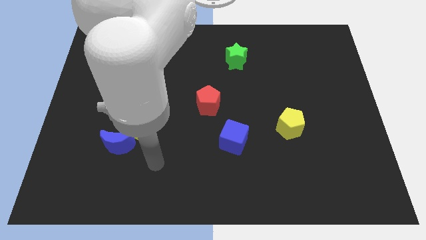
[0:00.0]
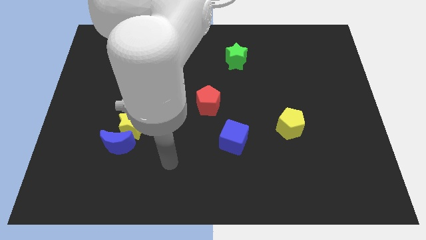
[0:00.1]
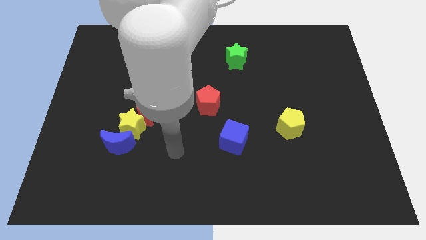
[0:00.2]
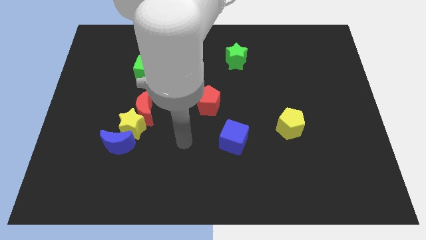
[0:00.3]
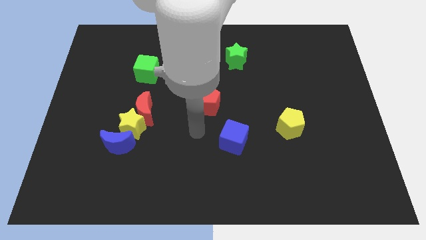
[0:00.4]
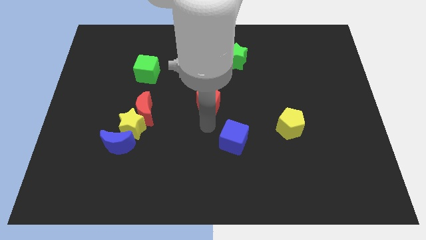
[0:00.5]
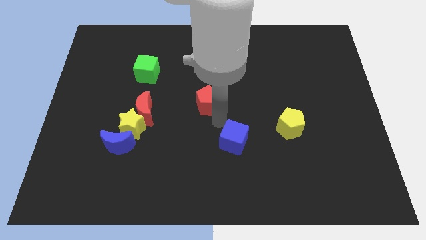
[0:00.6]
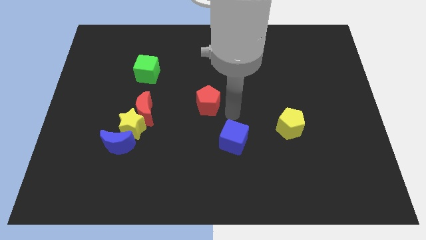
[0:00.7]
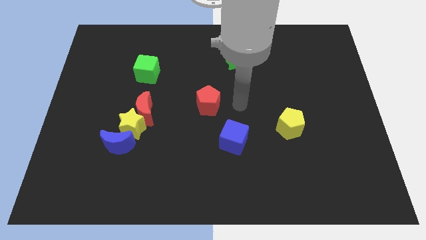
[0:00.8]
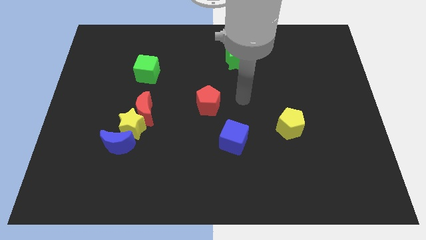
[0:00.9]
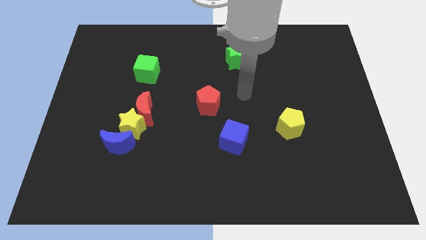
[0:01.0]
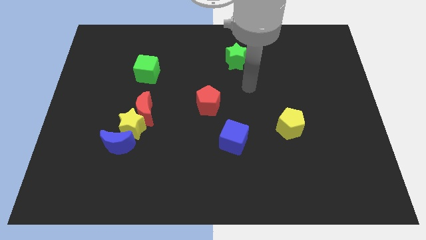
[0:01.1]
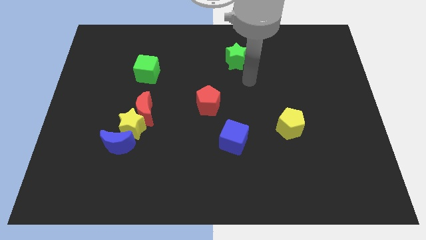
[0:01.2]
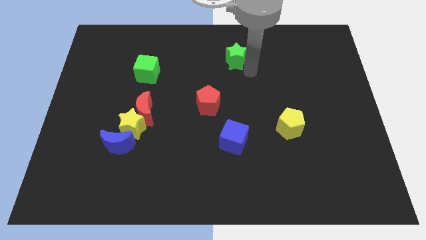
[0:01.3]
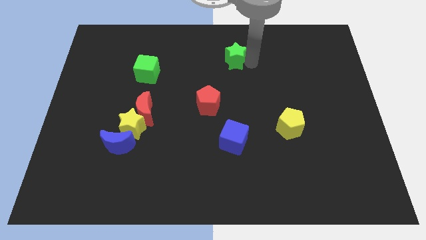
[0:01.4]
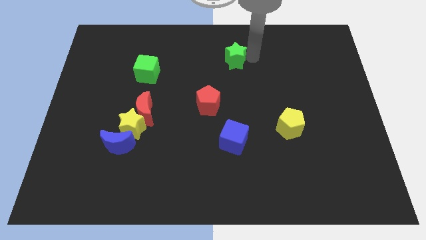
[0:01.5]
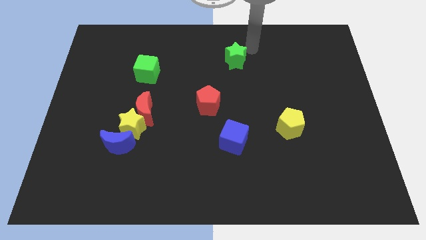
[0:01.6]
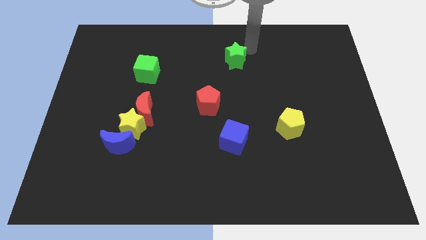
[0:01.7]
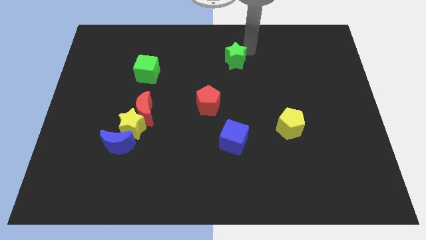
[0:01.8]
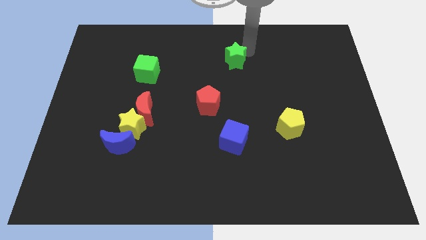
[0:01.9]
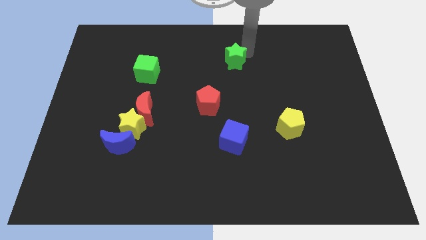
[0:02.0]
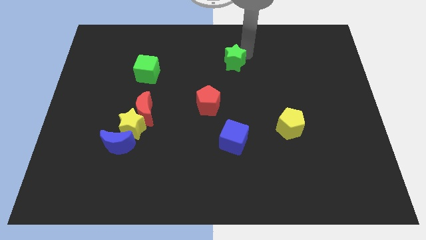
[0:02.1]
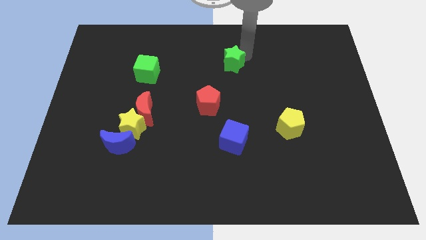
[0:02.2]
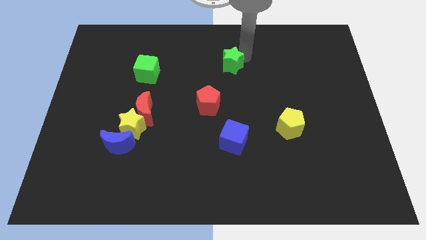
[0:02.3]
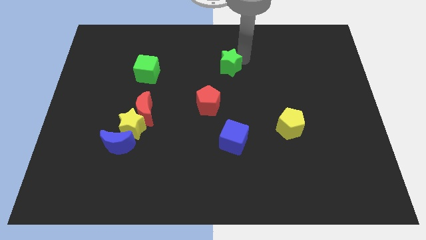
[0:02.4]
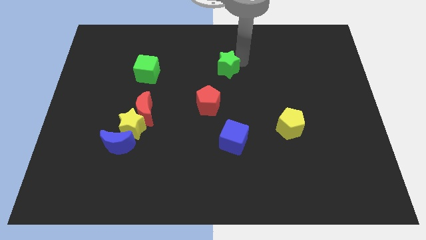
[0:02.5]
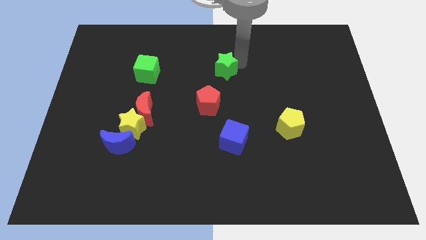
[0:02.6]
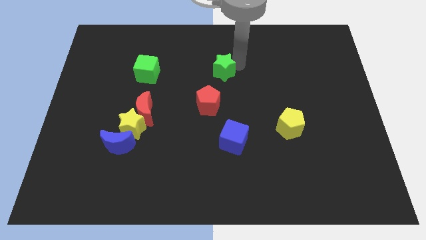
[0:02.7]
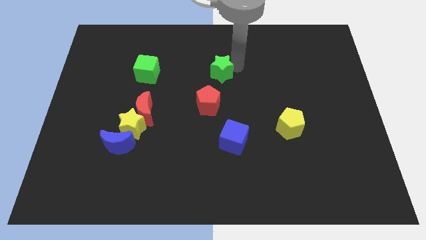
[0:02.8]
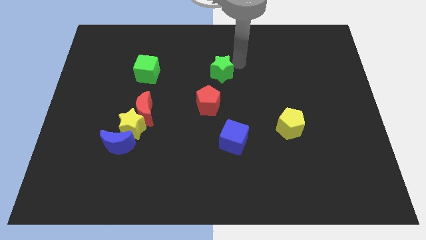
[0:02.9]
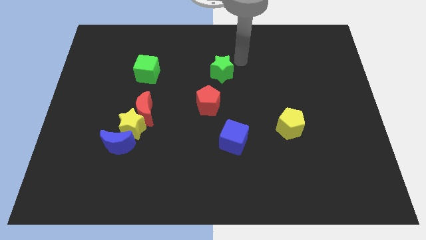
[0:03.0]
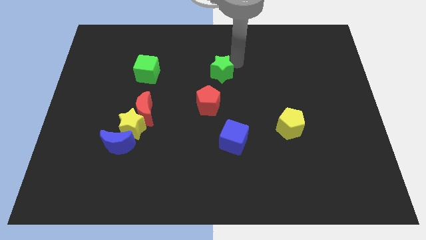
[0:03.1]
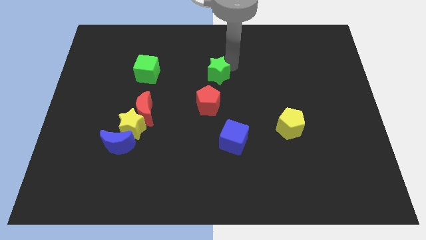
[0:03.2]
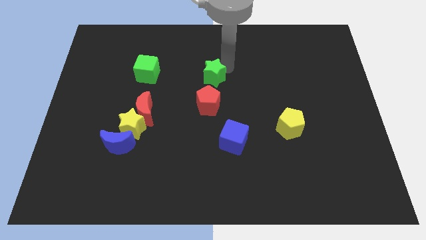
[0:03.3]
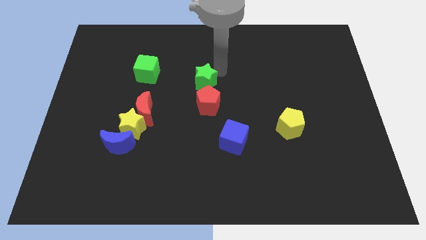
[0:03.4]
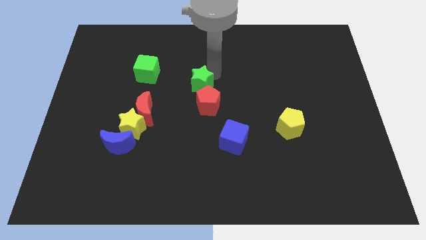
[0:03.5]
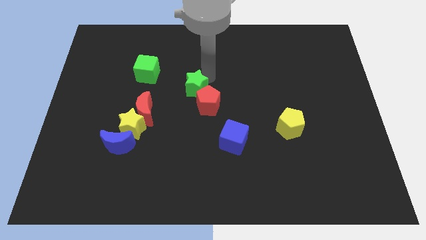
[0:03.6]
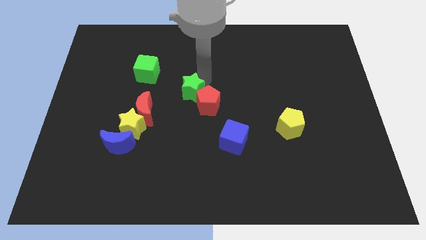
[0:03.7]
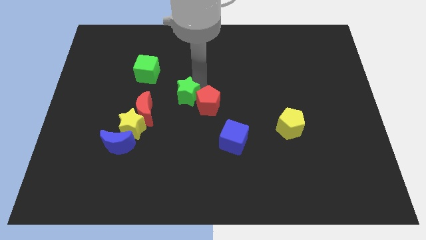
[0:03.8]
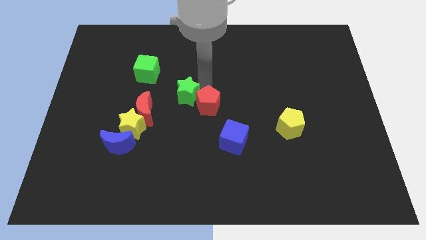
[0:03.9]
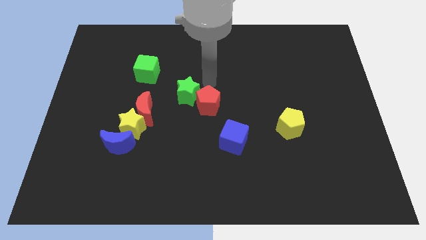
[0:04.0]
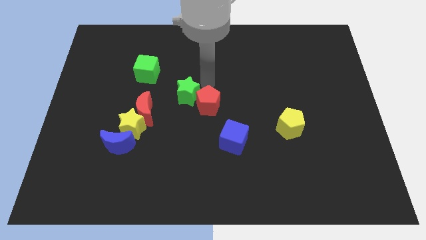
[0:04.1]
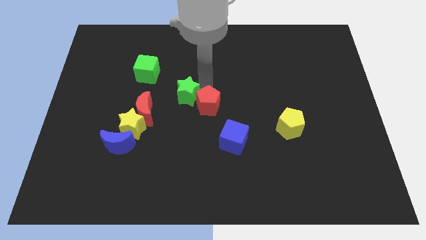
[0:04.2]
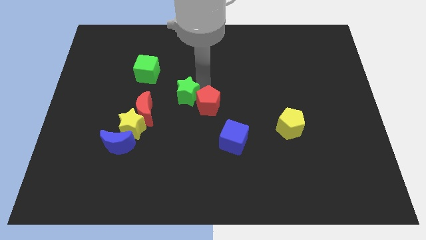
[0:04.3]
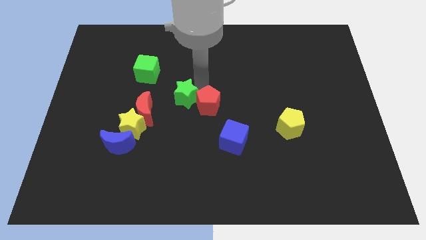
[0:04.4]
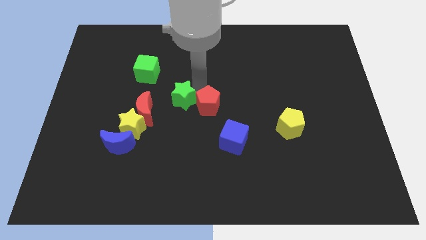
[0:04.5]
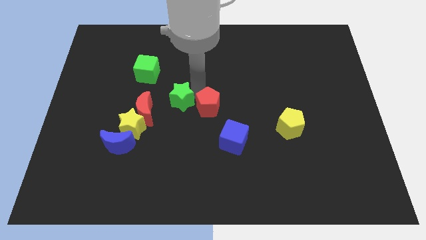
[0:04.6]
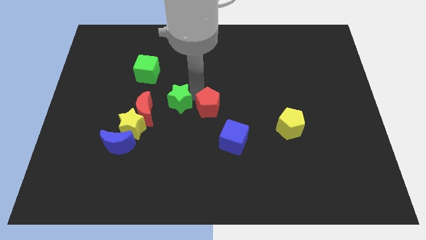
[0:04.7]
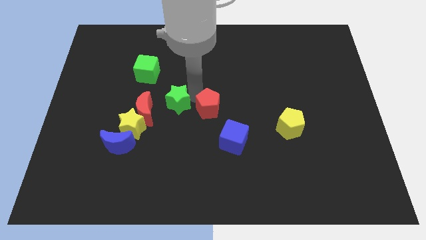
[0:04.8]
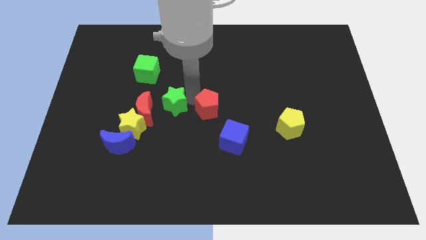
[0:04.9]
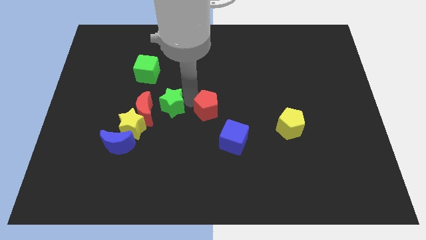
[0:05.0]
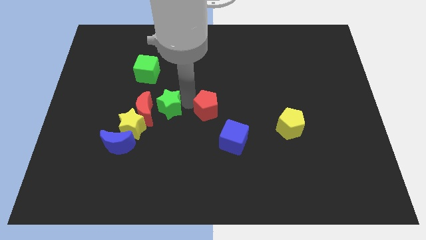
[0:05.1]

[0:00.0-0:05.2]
put the green star to the red moon

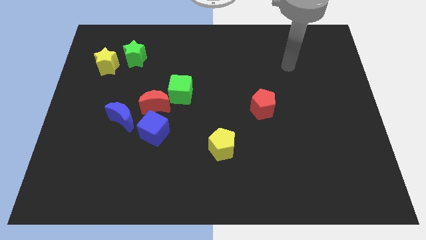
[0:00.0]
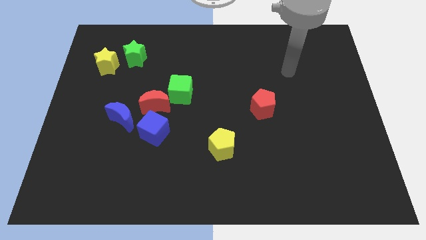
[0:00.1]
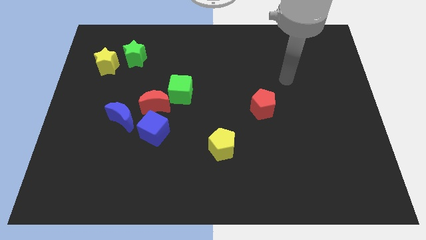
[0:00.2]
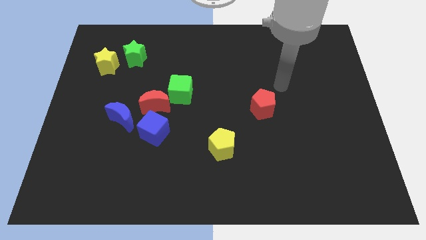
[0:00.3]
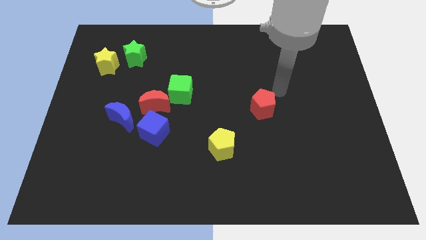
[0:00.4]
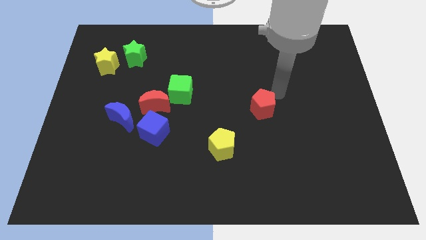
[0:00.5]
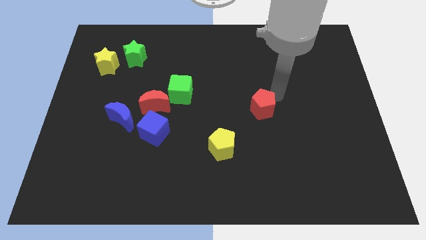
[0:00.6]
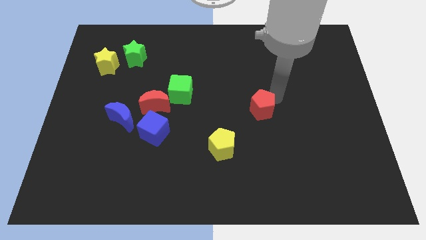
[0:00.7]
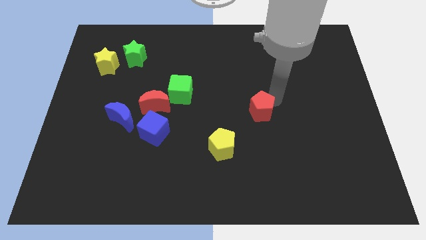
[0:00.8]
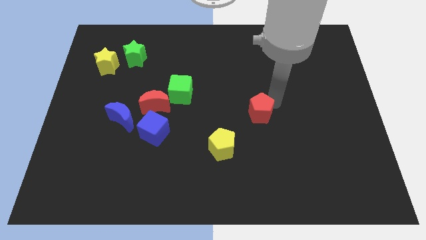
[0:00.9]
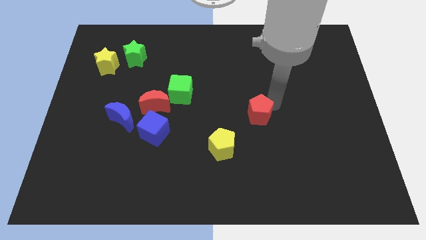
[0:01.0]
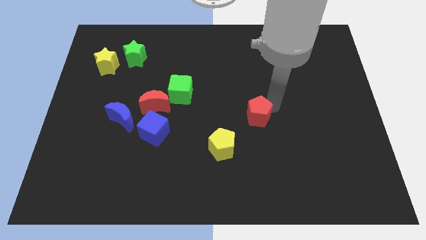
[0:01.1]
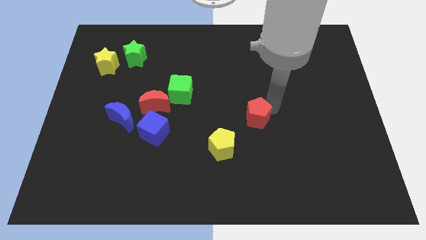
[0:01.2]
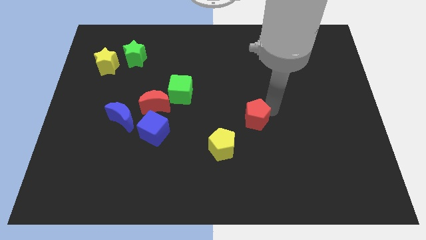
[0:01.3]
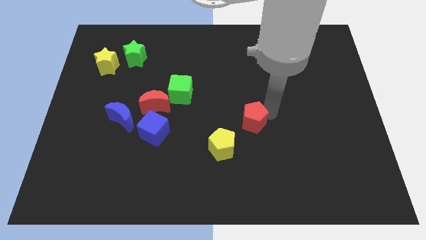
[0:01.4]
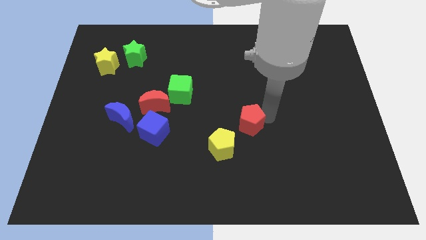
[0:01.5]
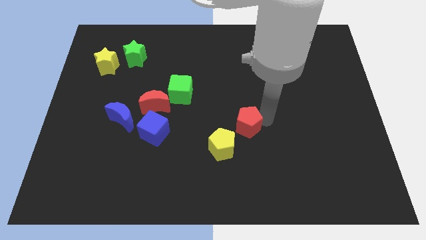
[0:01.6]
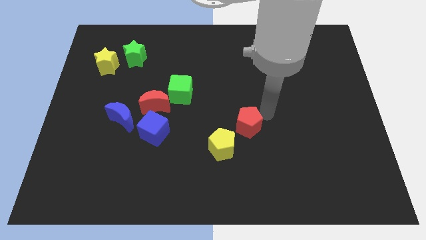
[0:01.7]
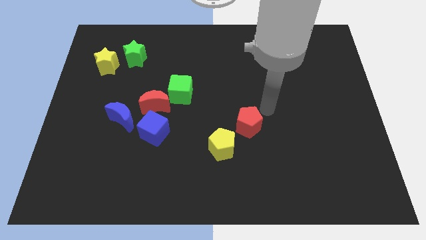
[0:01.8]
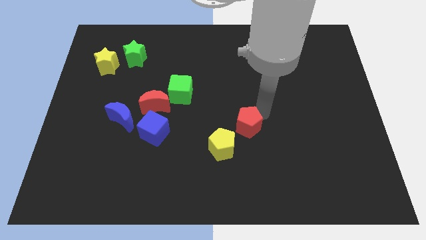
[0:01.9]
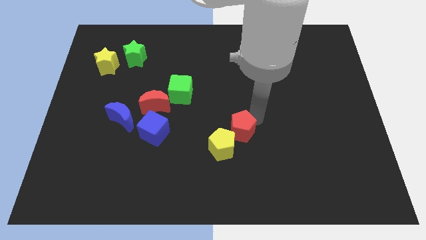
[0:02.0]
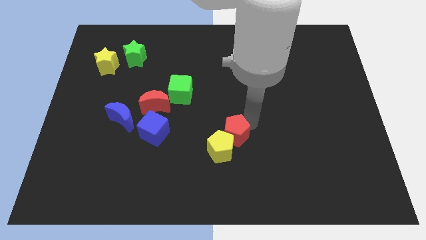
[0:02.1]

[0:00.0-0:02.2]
slide the red pentagon close to the yellow pentagon
